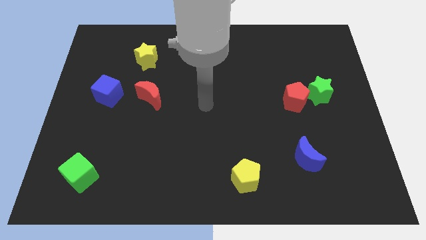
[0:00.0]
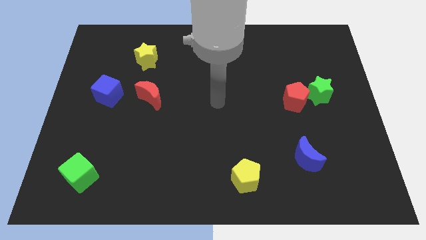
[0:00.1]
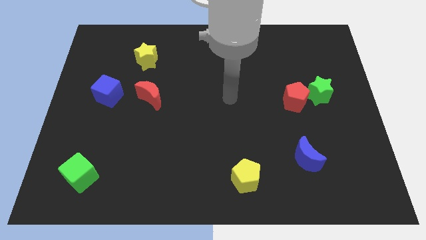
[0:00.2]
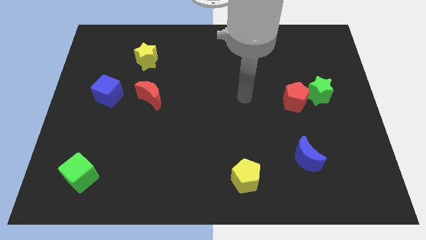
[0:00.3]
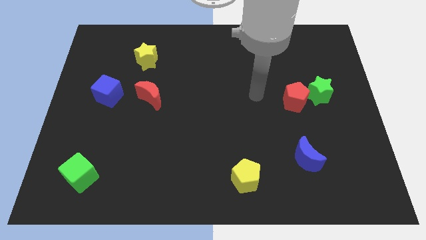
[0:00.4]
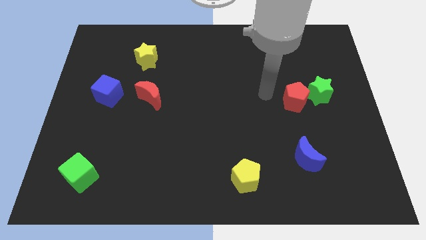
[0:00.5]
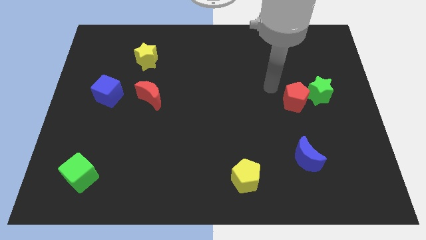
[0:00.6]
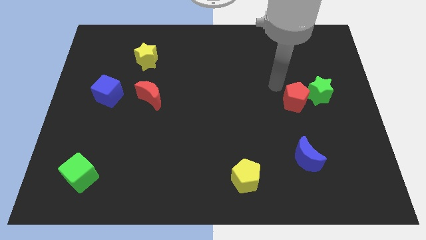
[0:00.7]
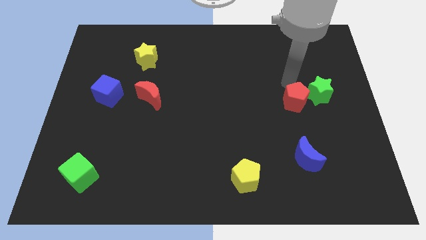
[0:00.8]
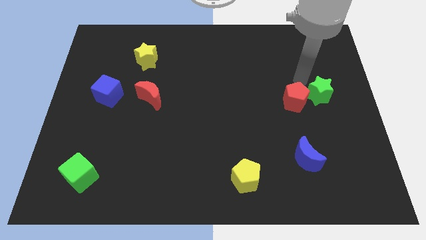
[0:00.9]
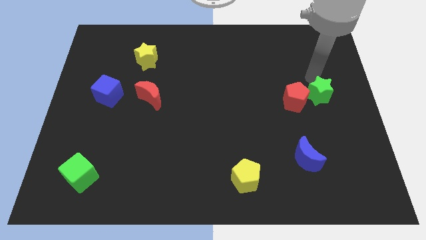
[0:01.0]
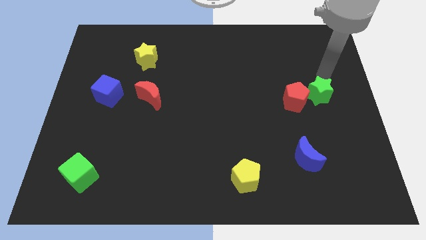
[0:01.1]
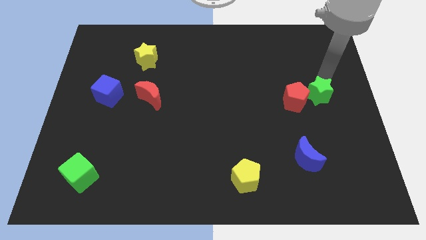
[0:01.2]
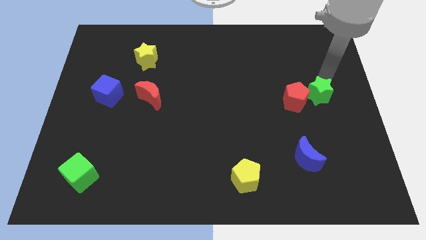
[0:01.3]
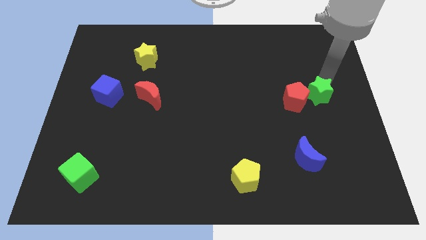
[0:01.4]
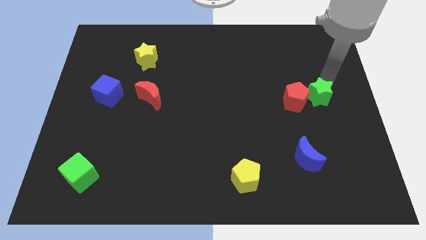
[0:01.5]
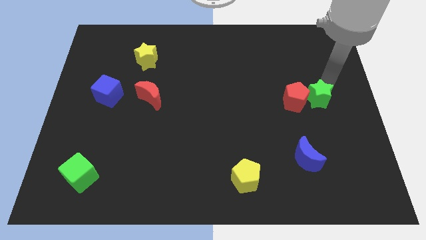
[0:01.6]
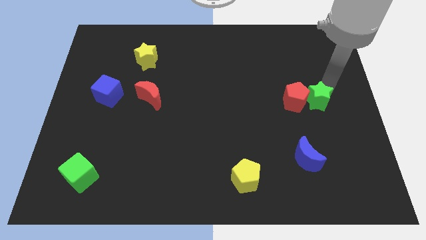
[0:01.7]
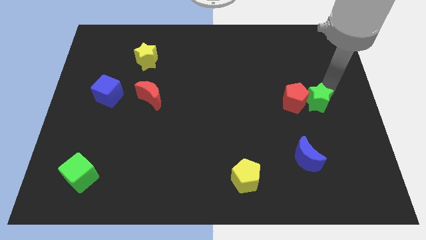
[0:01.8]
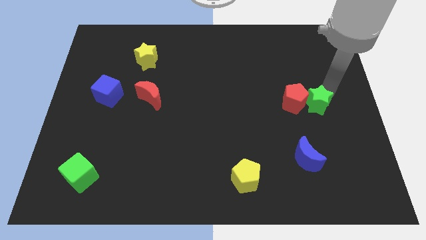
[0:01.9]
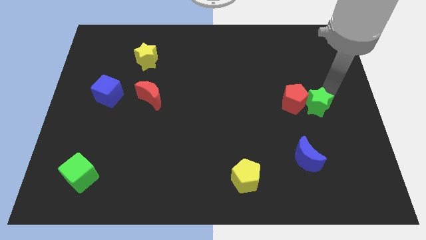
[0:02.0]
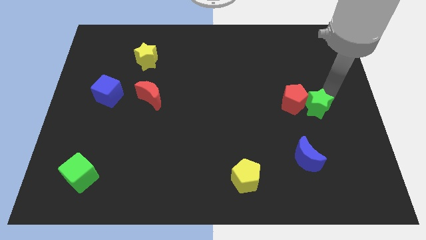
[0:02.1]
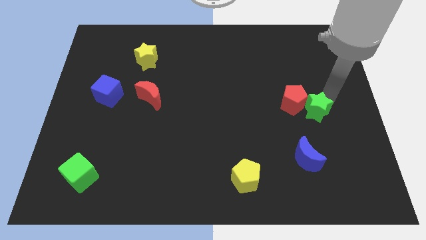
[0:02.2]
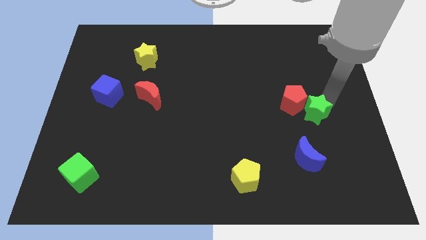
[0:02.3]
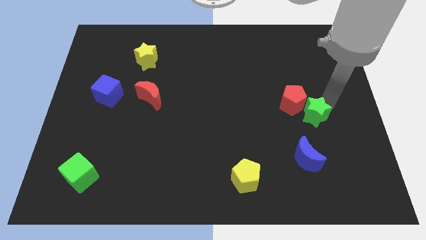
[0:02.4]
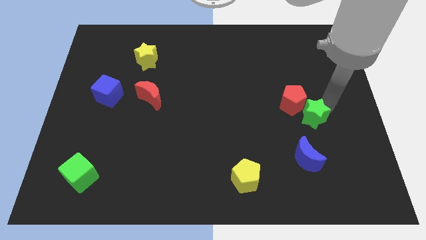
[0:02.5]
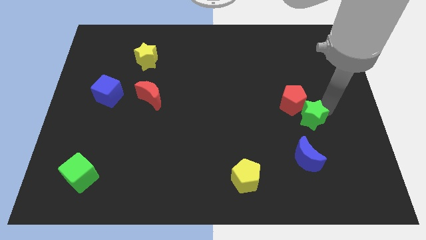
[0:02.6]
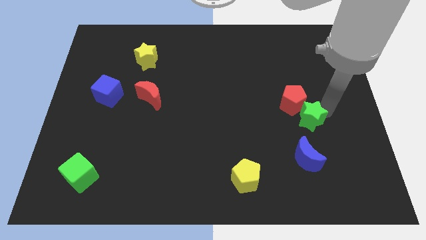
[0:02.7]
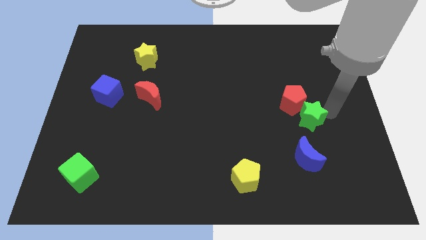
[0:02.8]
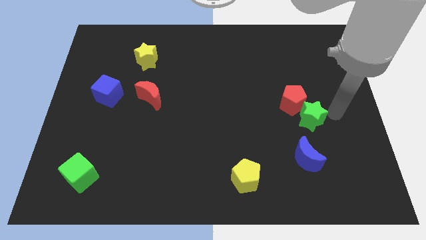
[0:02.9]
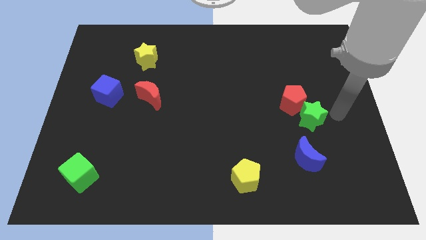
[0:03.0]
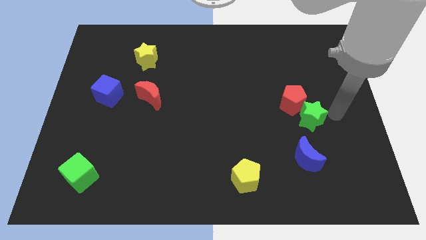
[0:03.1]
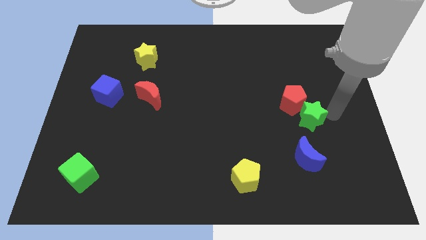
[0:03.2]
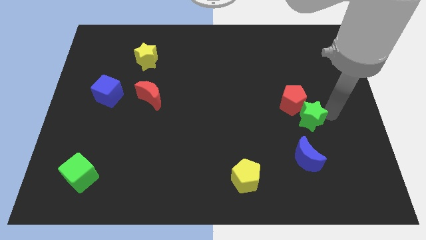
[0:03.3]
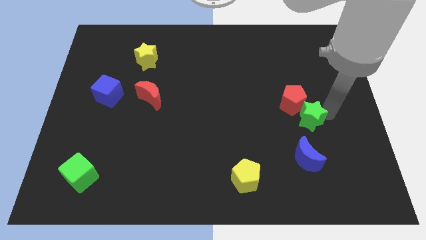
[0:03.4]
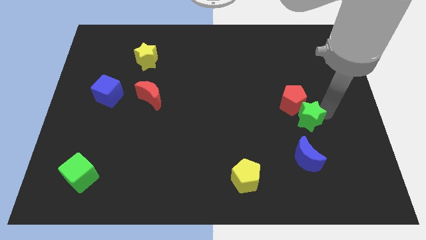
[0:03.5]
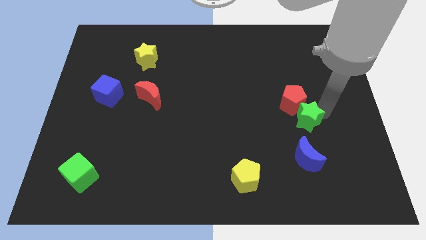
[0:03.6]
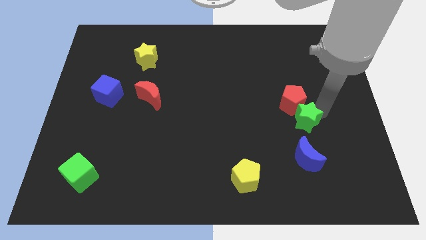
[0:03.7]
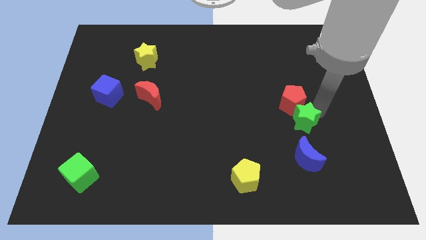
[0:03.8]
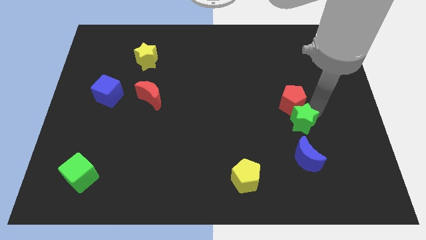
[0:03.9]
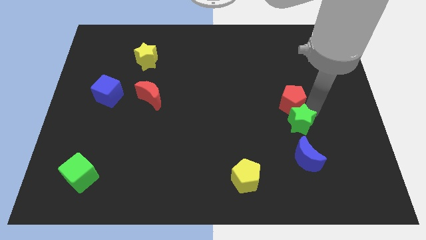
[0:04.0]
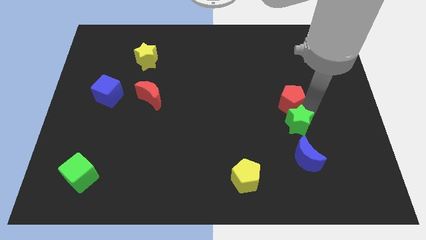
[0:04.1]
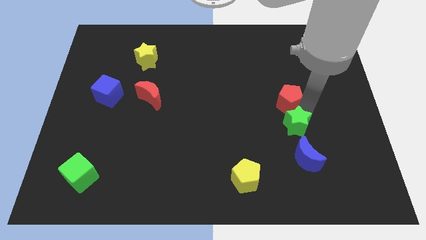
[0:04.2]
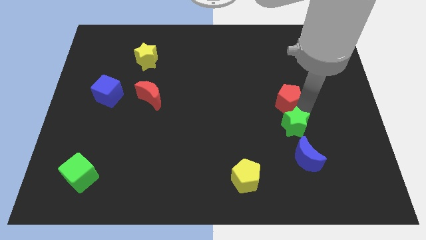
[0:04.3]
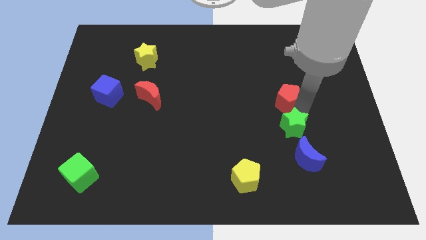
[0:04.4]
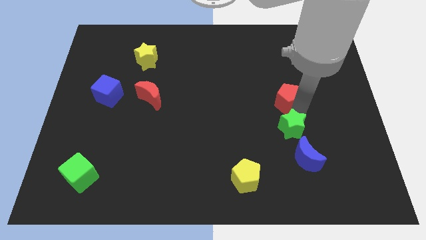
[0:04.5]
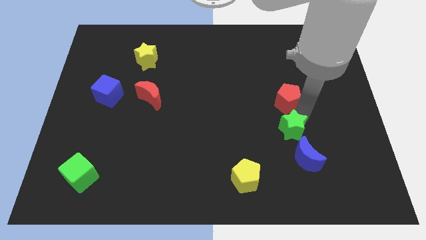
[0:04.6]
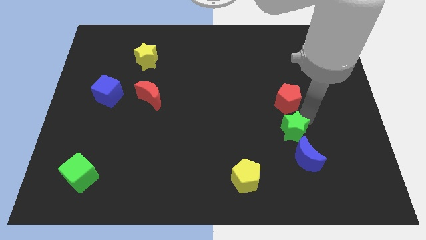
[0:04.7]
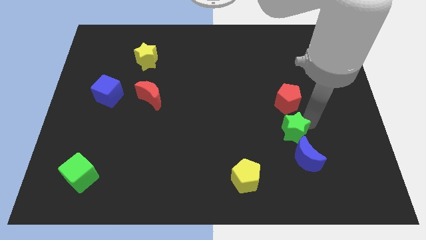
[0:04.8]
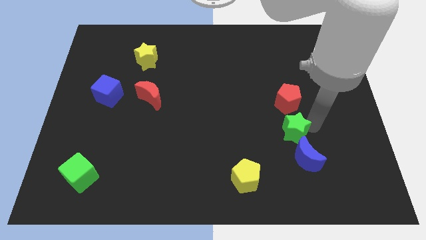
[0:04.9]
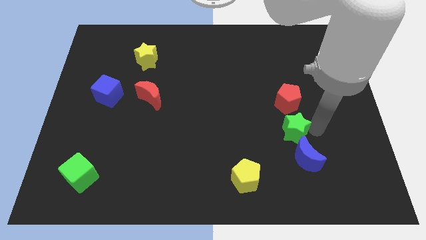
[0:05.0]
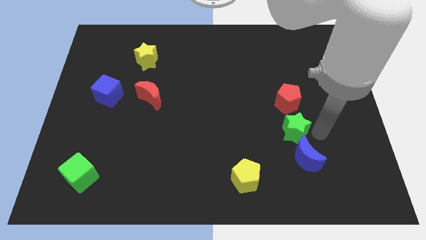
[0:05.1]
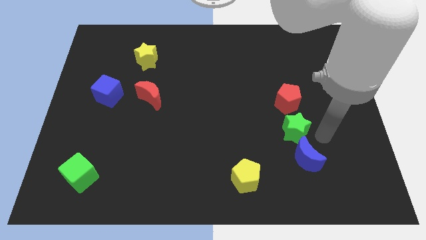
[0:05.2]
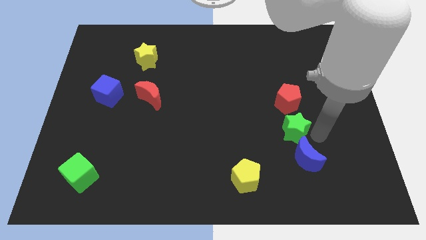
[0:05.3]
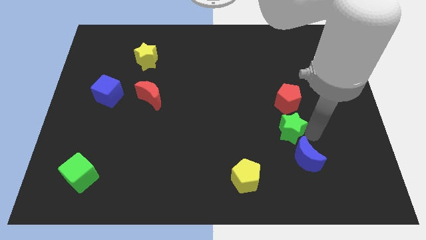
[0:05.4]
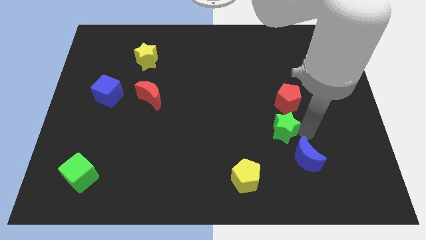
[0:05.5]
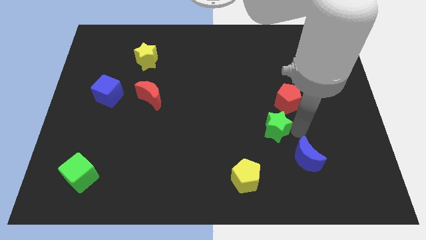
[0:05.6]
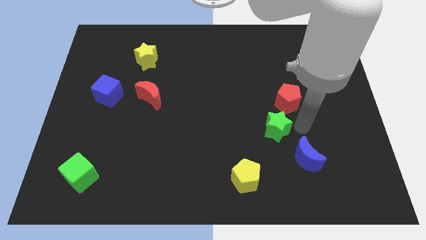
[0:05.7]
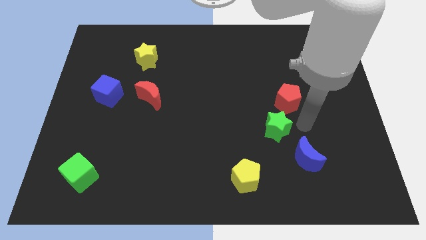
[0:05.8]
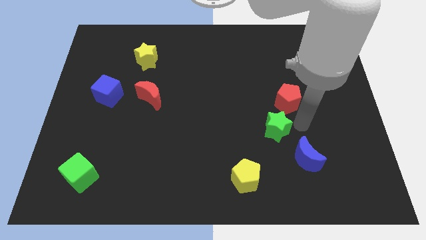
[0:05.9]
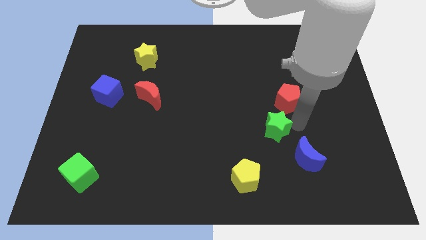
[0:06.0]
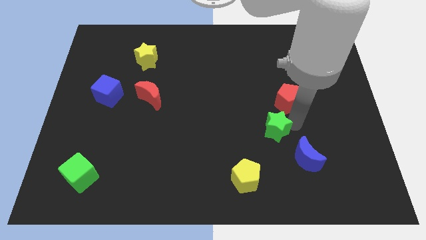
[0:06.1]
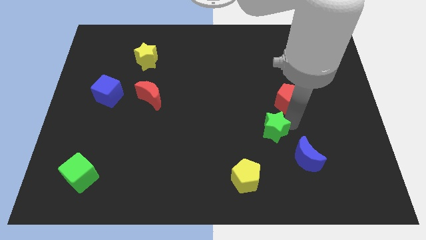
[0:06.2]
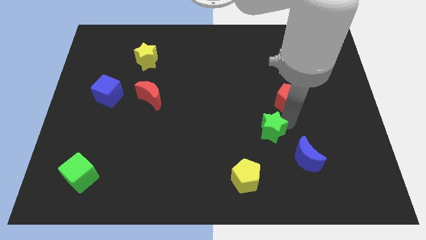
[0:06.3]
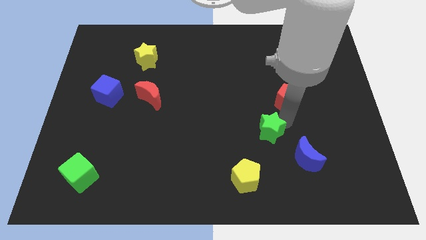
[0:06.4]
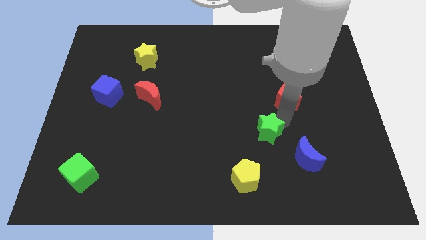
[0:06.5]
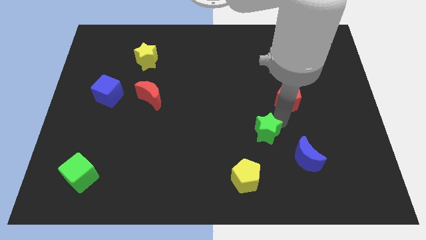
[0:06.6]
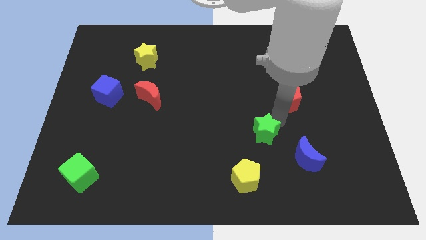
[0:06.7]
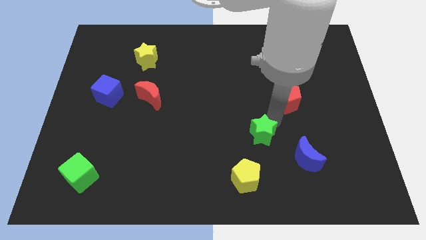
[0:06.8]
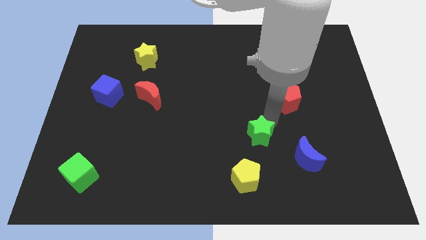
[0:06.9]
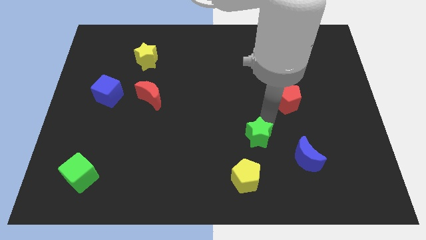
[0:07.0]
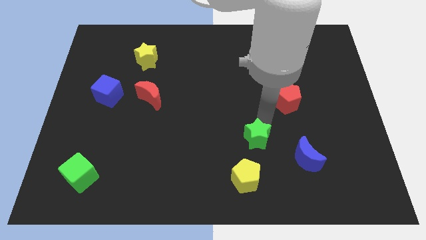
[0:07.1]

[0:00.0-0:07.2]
slide the green star down and to the left diagonally

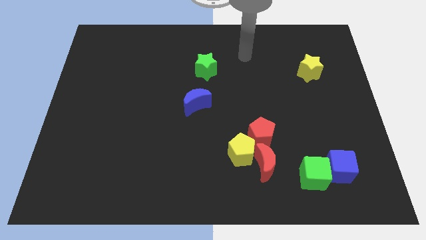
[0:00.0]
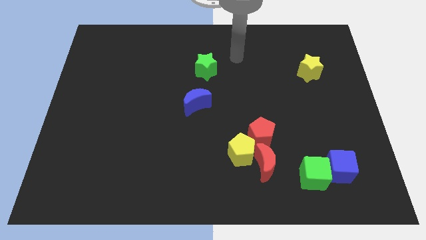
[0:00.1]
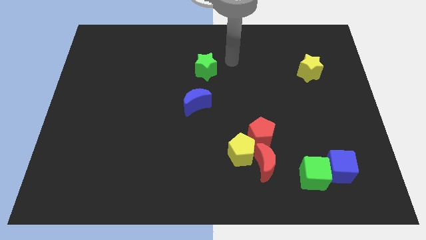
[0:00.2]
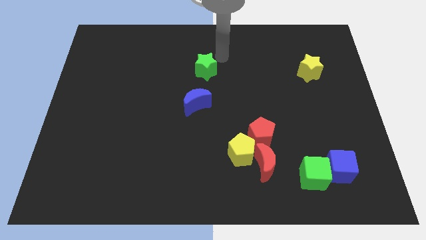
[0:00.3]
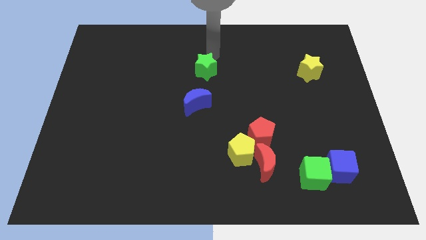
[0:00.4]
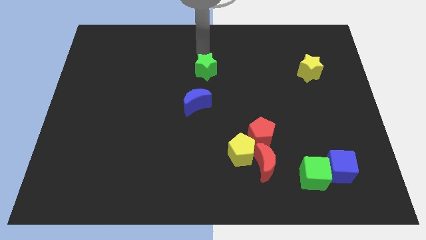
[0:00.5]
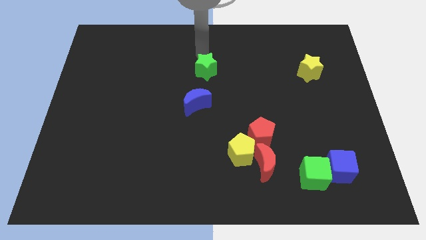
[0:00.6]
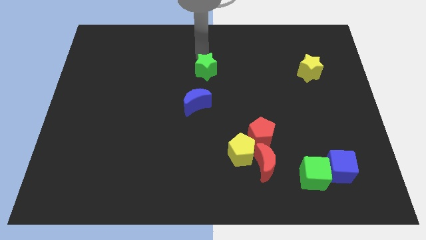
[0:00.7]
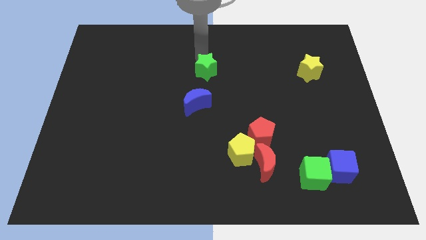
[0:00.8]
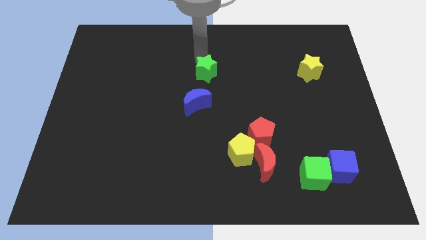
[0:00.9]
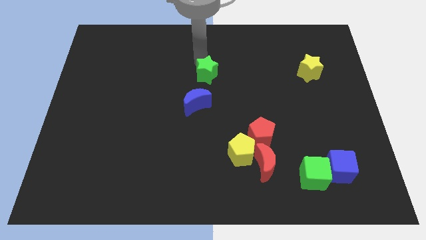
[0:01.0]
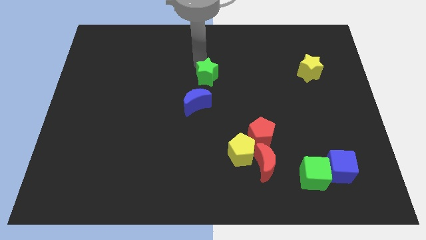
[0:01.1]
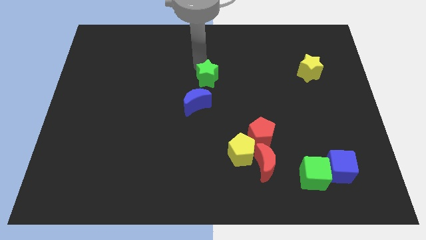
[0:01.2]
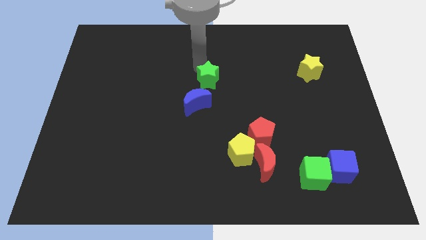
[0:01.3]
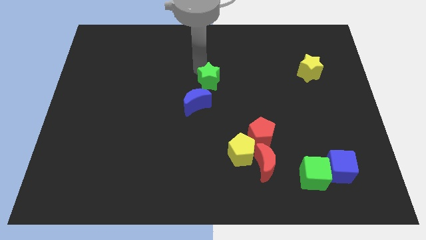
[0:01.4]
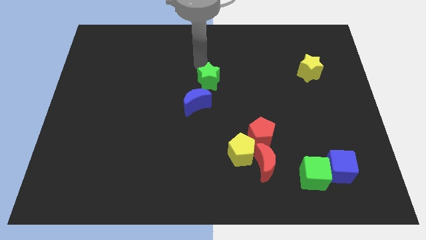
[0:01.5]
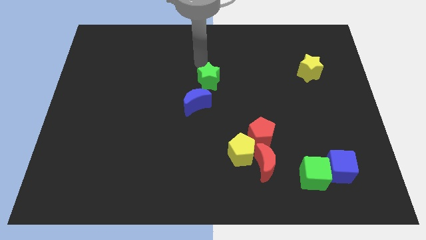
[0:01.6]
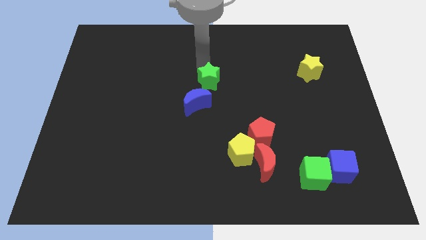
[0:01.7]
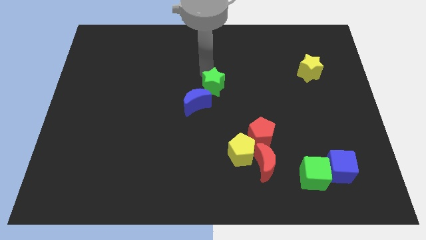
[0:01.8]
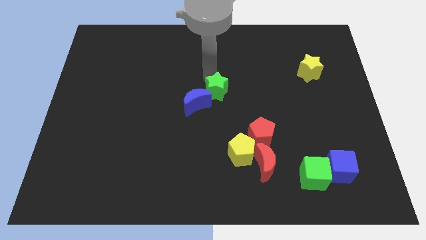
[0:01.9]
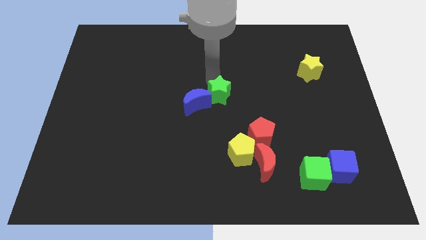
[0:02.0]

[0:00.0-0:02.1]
push the green star slightly downwards
